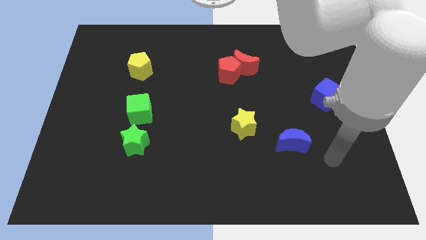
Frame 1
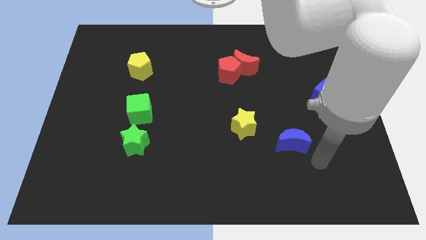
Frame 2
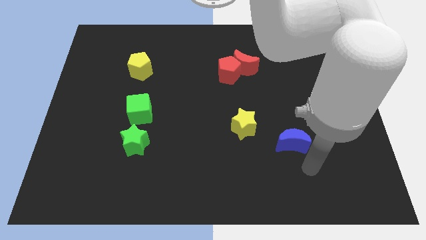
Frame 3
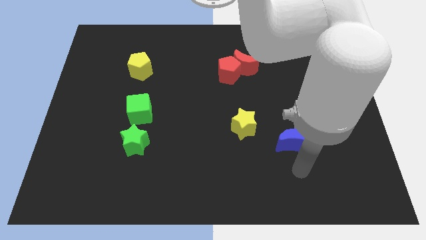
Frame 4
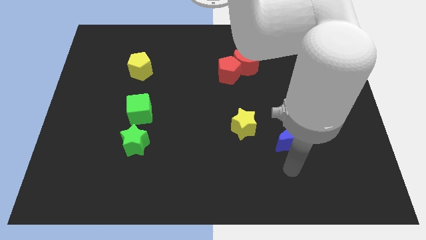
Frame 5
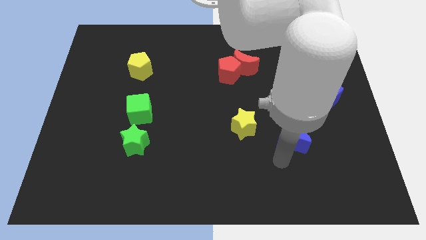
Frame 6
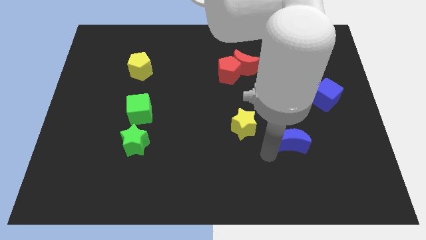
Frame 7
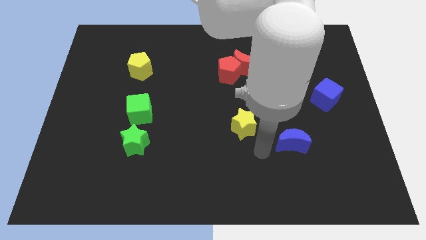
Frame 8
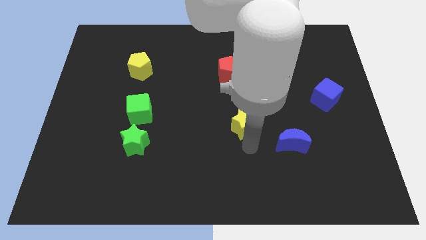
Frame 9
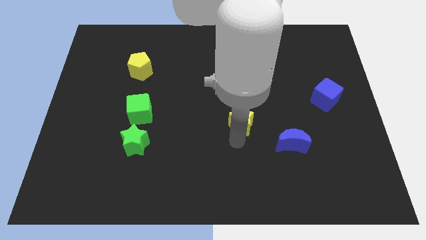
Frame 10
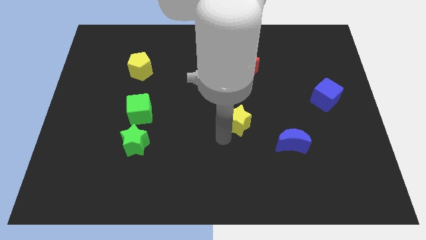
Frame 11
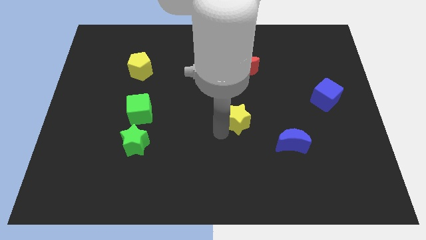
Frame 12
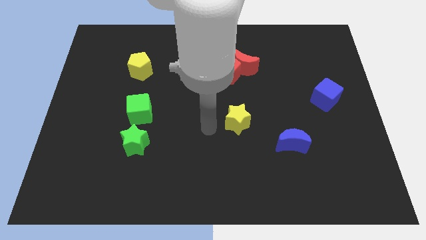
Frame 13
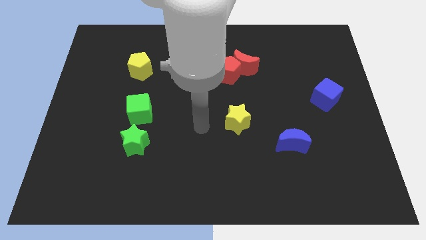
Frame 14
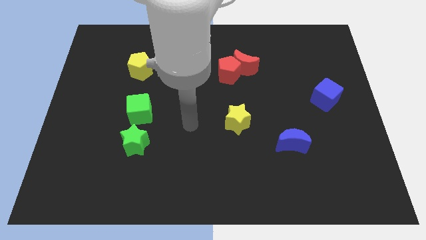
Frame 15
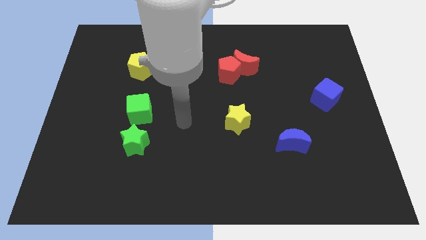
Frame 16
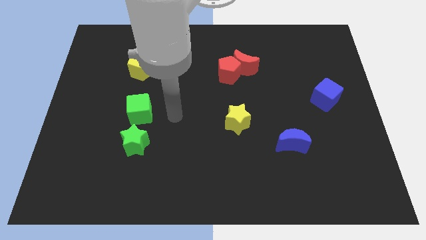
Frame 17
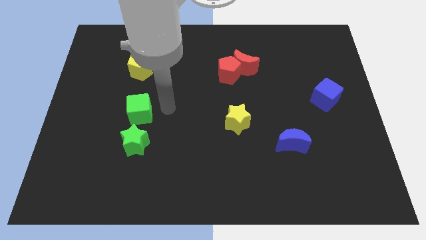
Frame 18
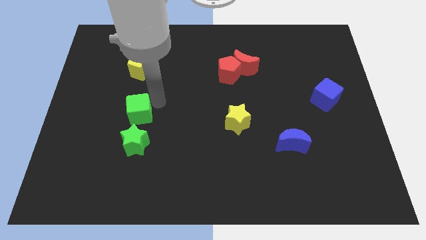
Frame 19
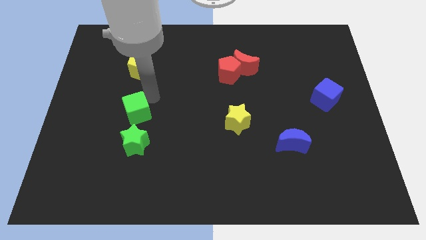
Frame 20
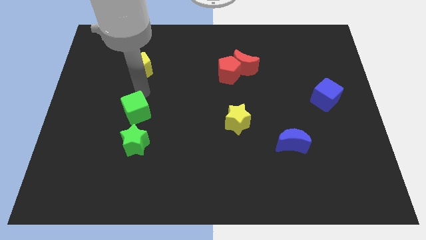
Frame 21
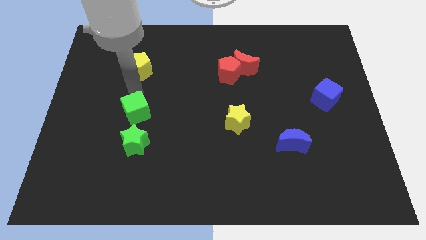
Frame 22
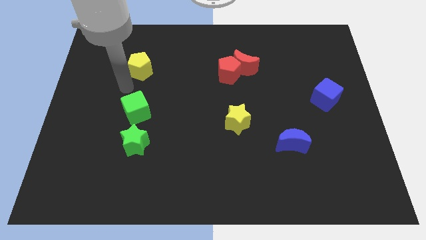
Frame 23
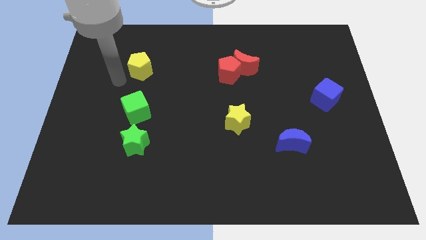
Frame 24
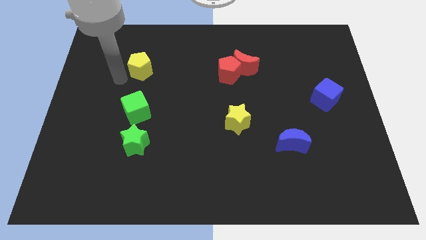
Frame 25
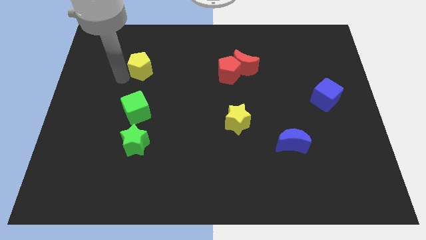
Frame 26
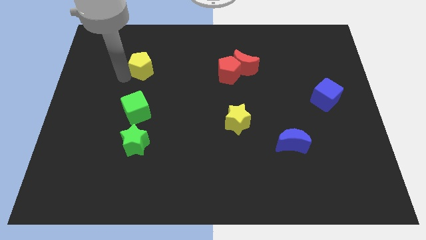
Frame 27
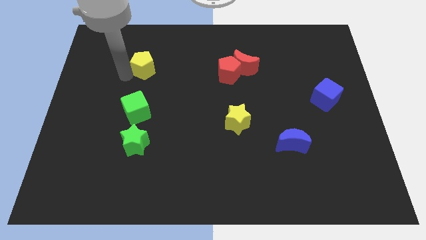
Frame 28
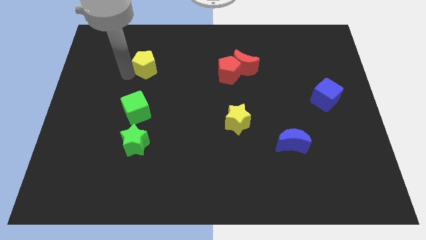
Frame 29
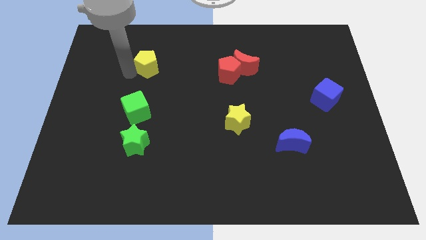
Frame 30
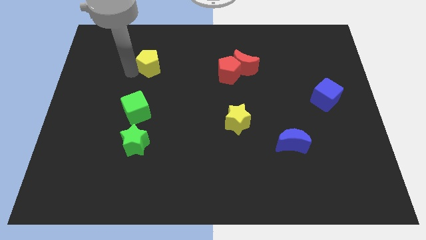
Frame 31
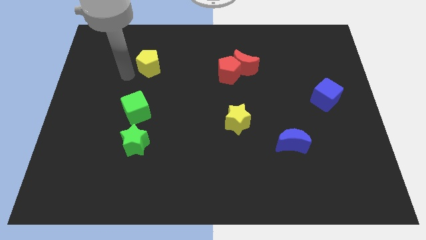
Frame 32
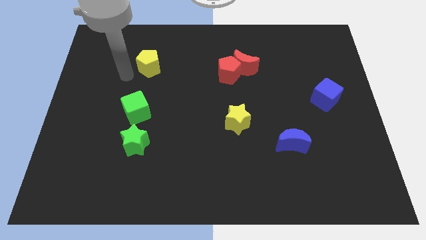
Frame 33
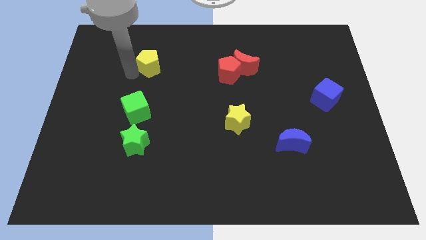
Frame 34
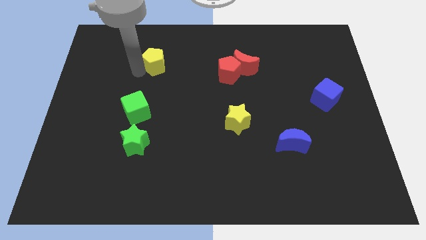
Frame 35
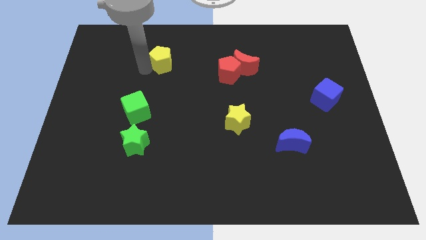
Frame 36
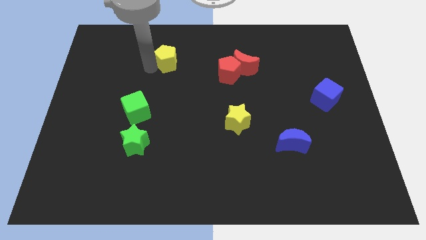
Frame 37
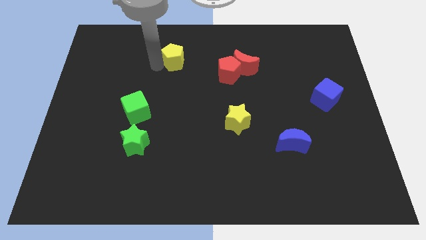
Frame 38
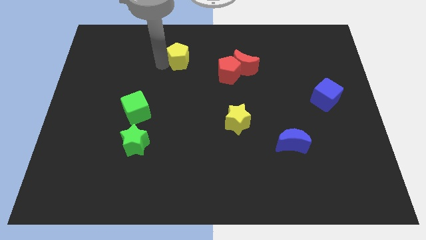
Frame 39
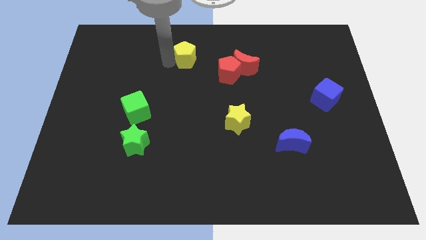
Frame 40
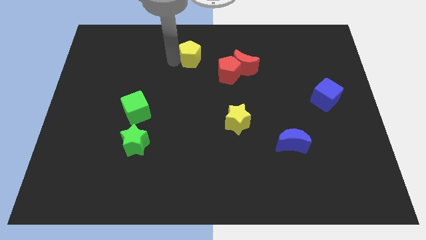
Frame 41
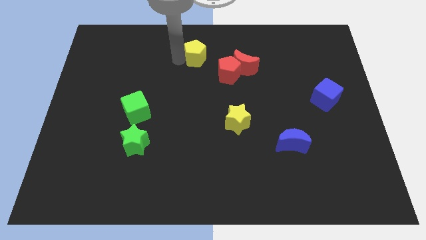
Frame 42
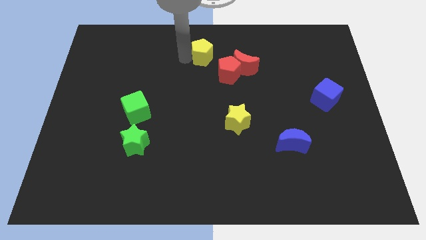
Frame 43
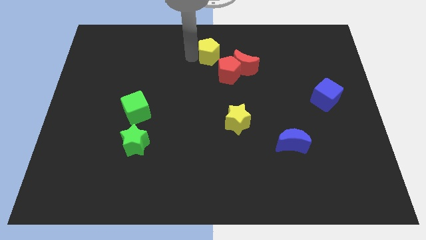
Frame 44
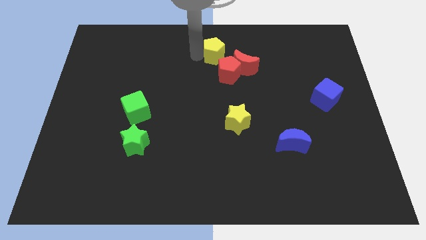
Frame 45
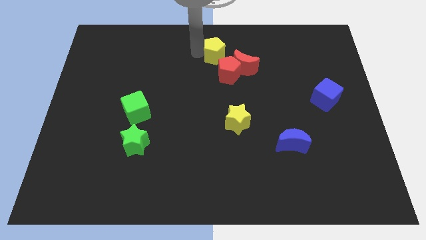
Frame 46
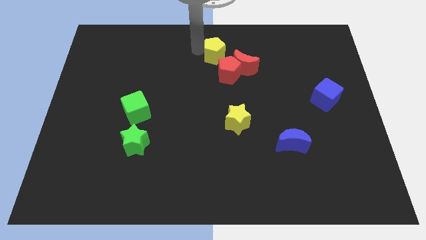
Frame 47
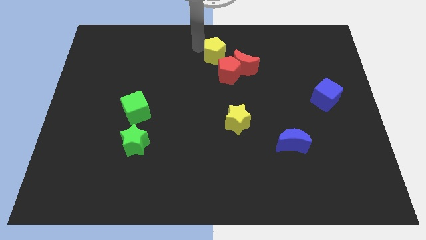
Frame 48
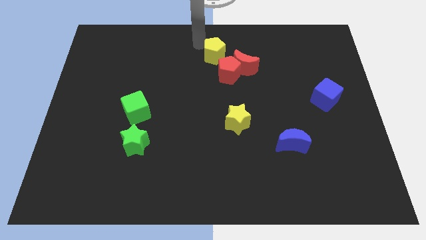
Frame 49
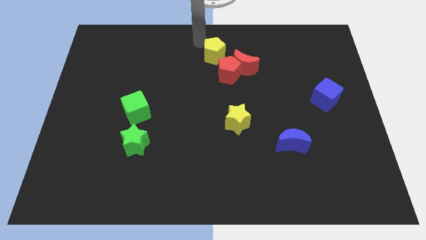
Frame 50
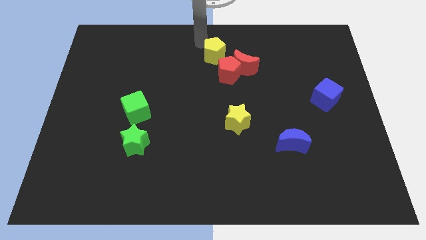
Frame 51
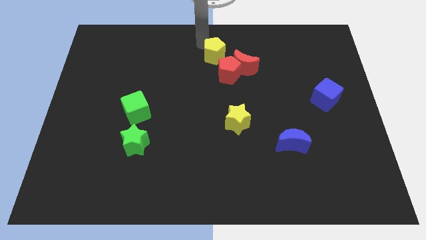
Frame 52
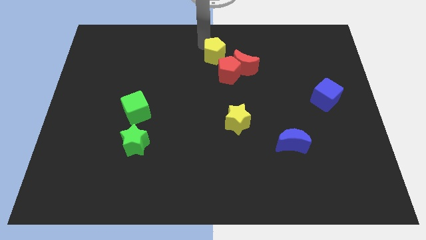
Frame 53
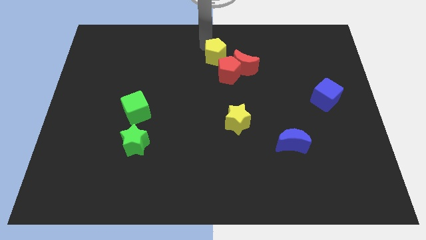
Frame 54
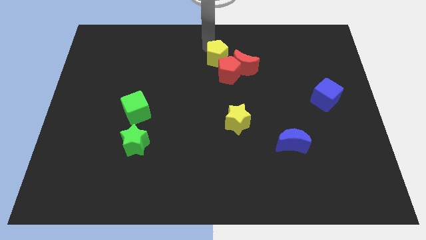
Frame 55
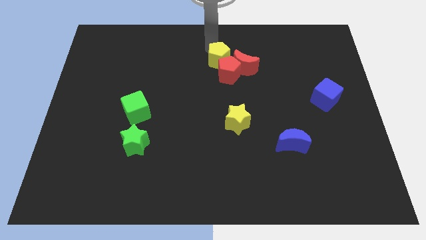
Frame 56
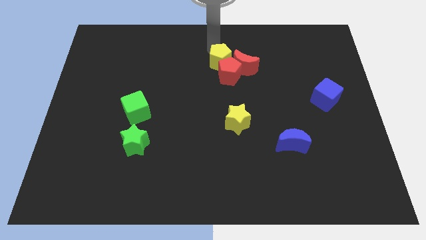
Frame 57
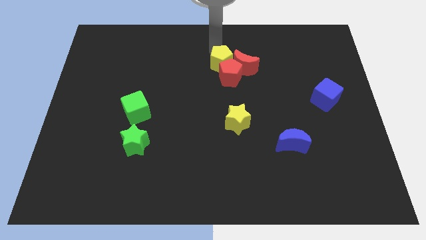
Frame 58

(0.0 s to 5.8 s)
push the yellow pentagon to the red moon

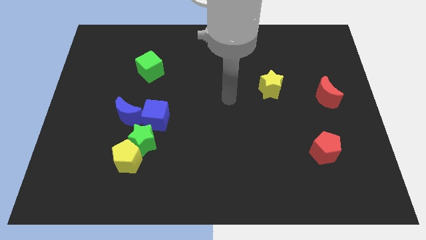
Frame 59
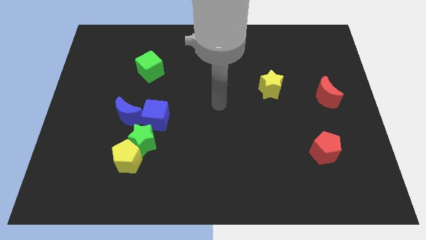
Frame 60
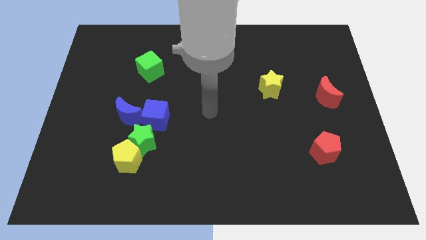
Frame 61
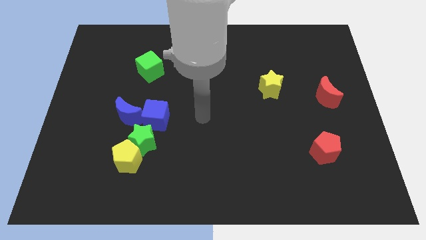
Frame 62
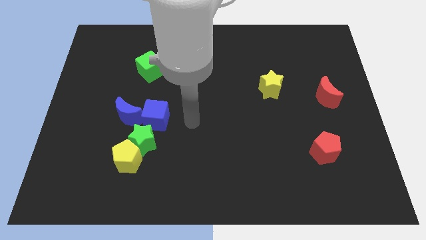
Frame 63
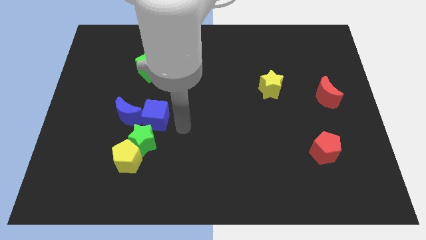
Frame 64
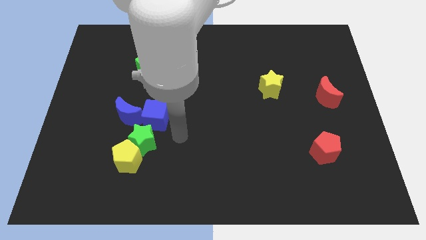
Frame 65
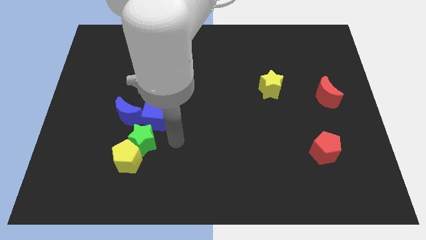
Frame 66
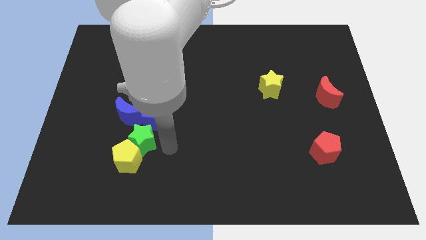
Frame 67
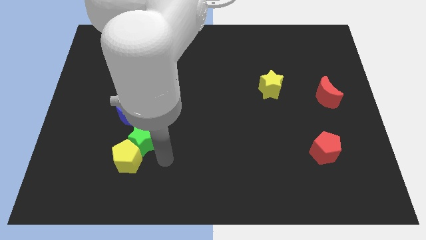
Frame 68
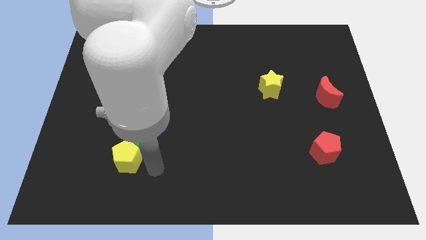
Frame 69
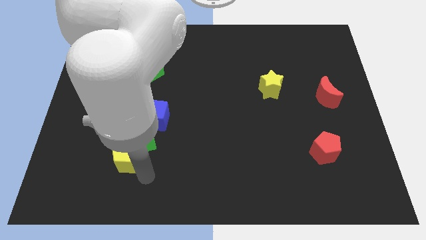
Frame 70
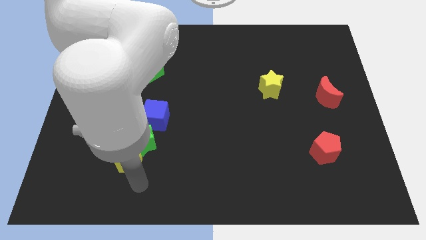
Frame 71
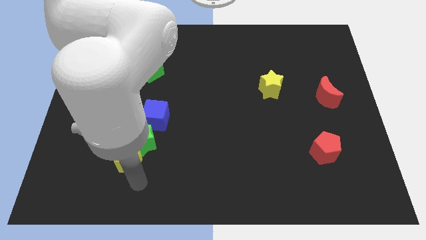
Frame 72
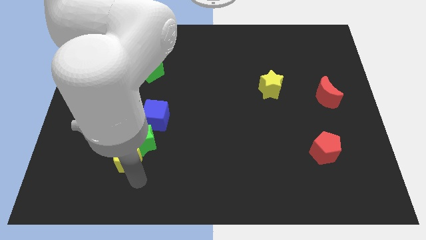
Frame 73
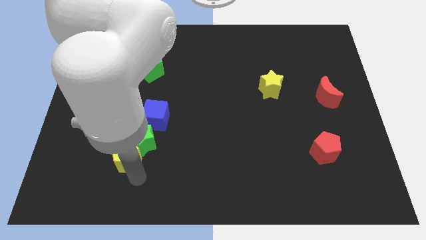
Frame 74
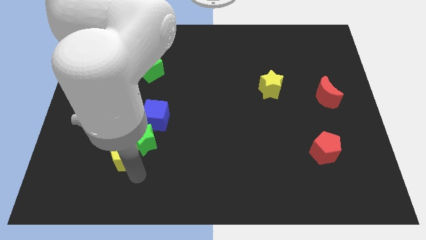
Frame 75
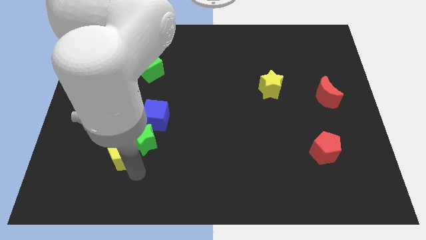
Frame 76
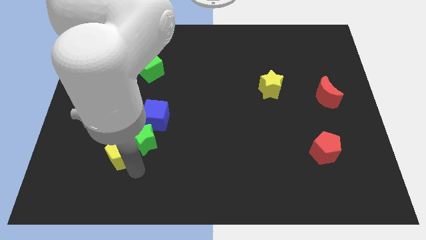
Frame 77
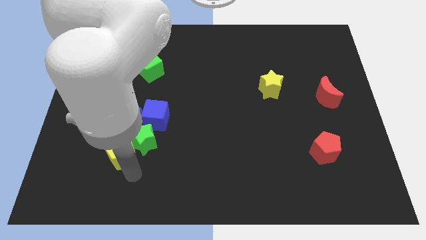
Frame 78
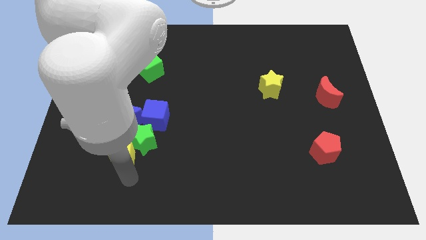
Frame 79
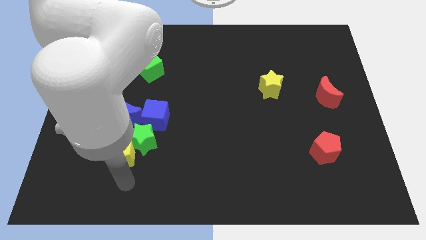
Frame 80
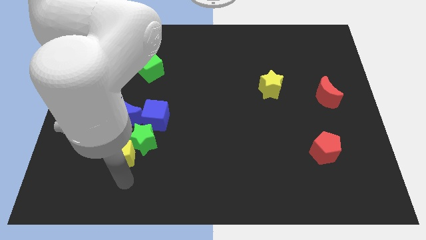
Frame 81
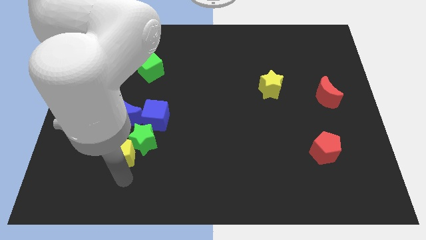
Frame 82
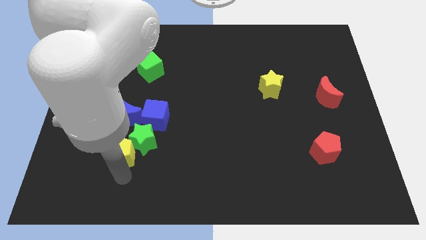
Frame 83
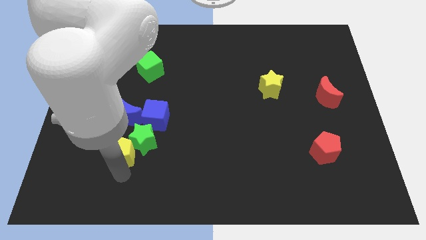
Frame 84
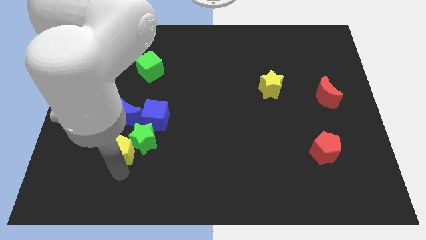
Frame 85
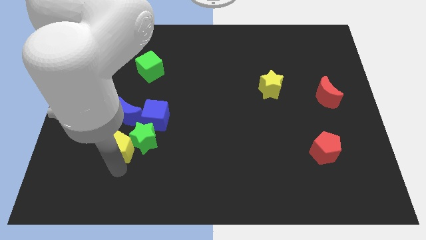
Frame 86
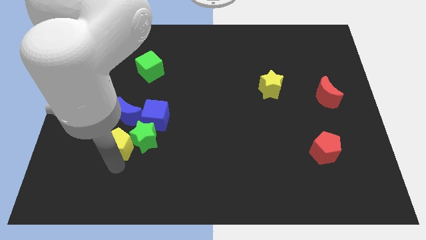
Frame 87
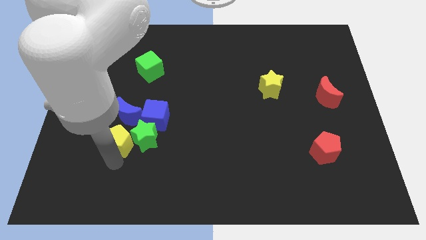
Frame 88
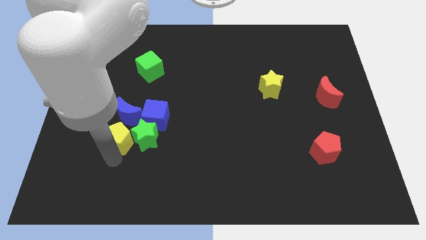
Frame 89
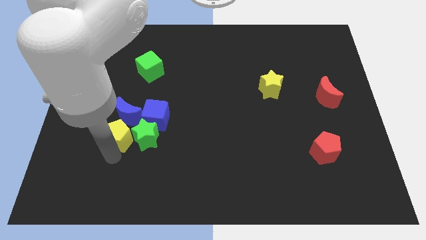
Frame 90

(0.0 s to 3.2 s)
put the yellow pentagon towards the blue moon
